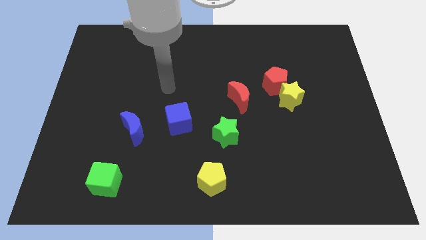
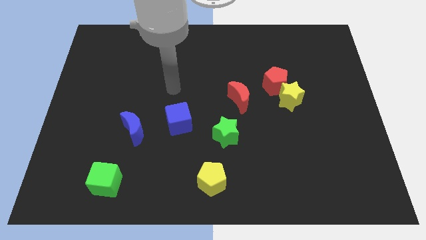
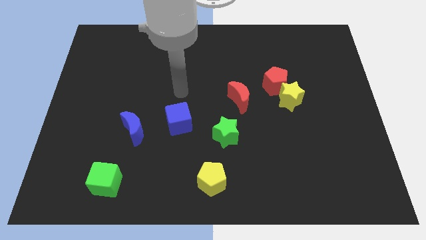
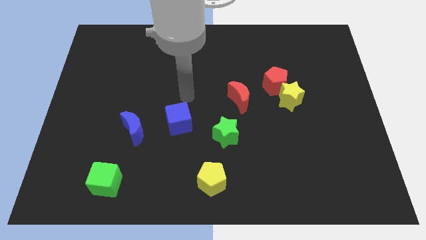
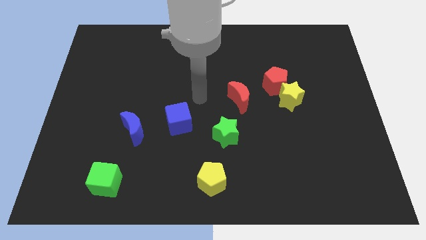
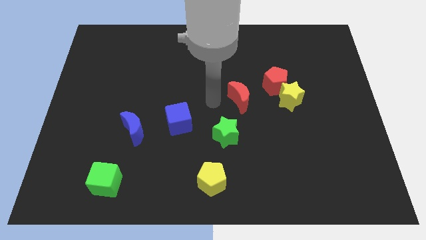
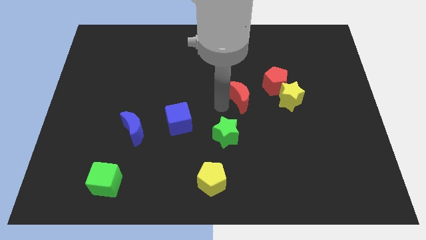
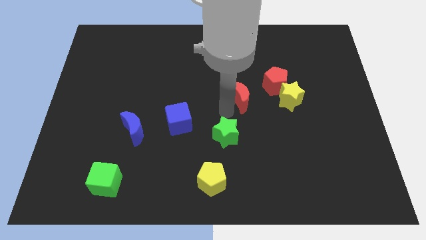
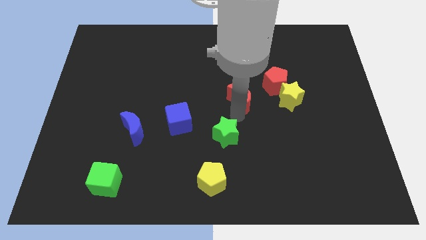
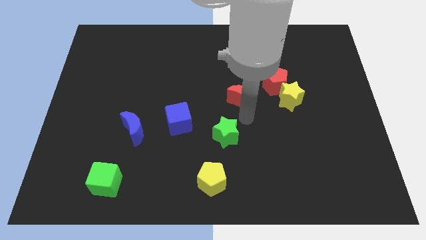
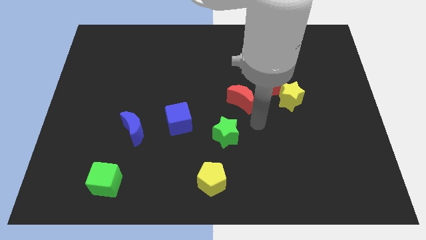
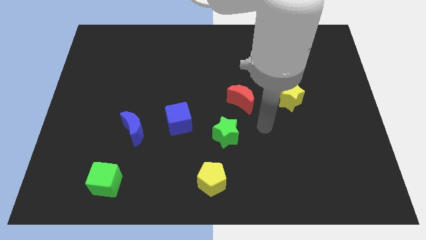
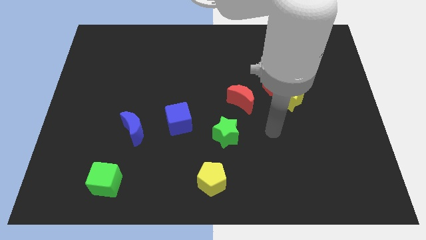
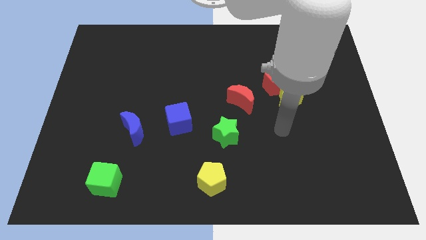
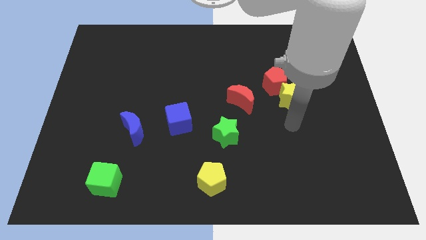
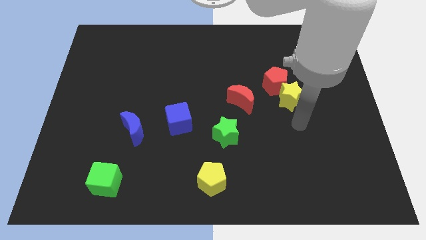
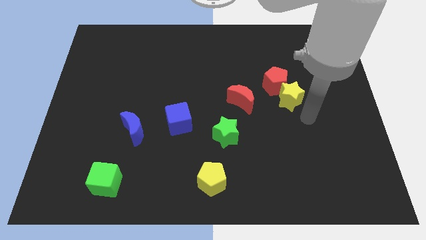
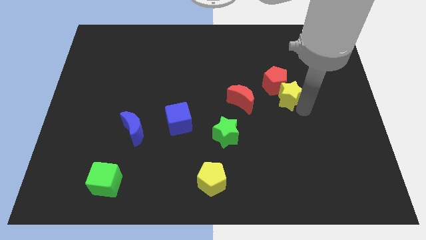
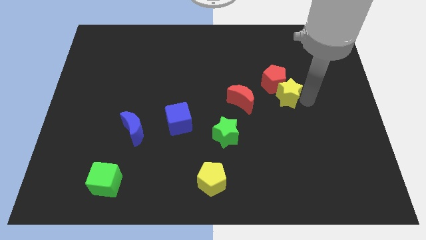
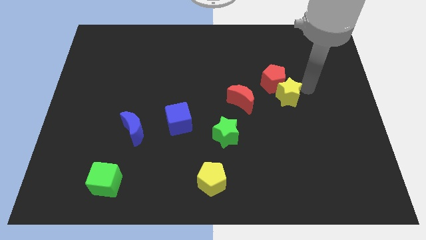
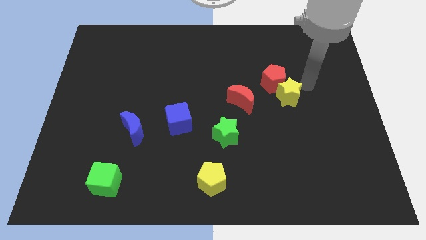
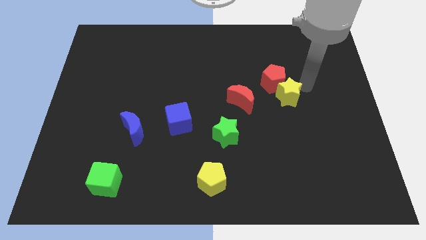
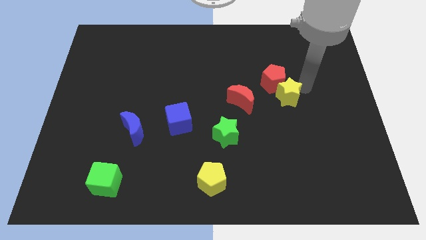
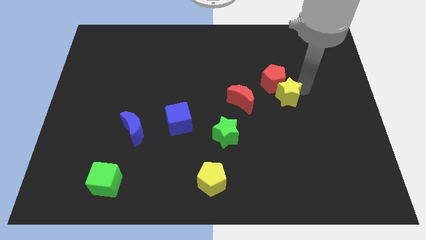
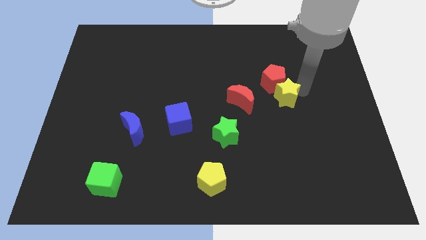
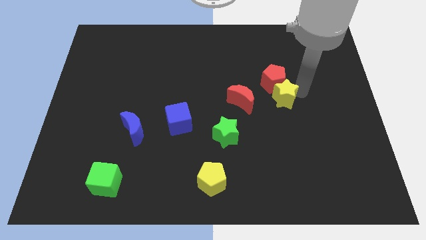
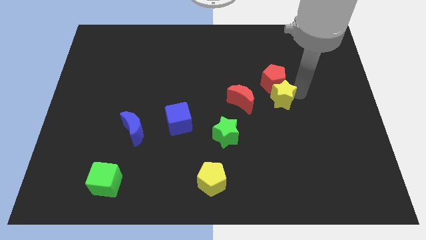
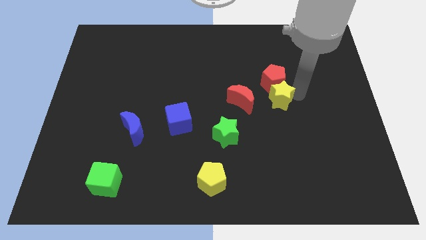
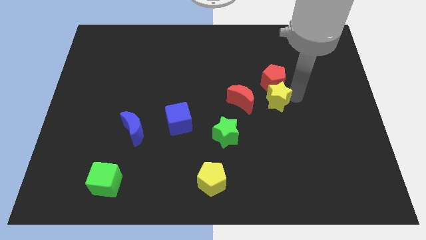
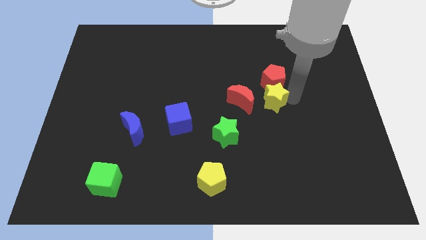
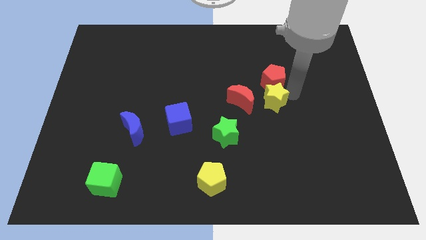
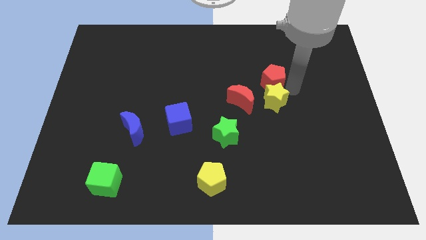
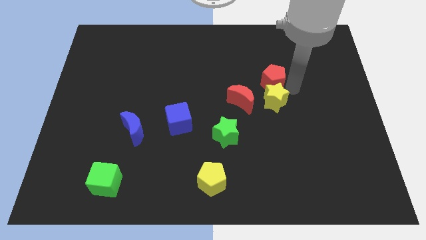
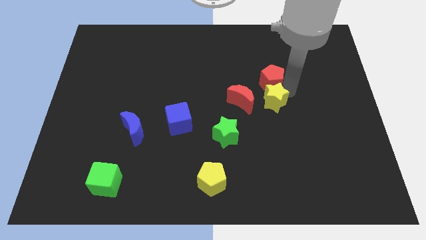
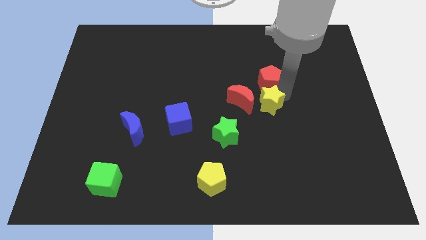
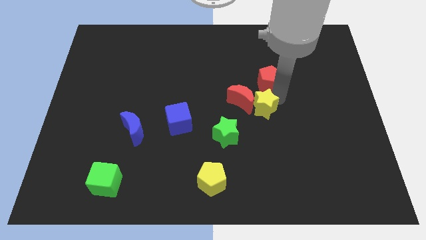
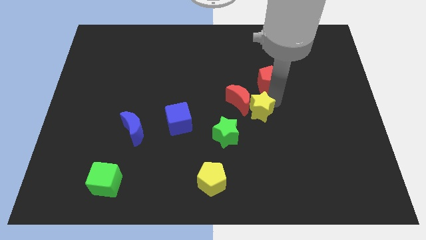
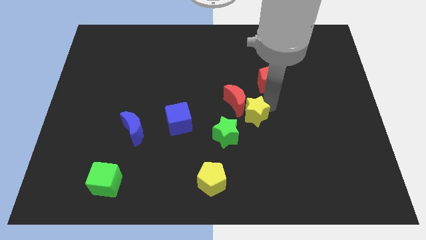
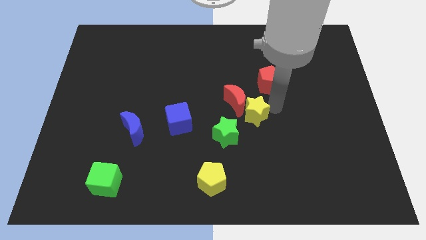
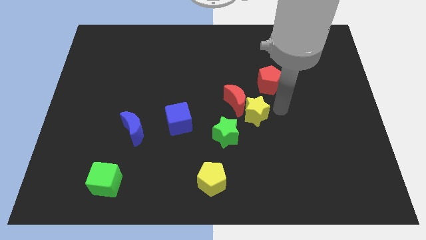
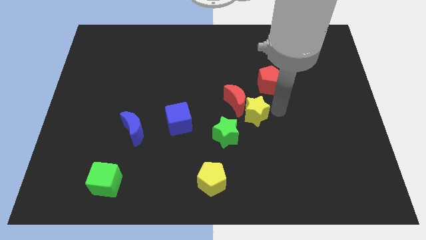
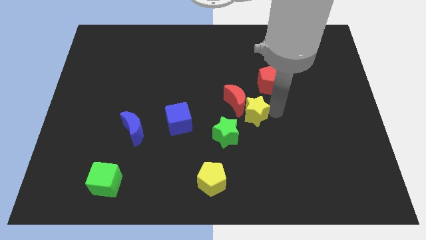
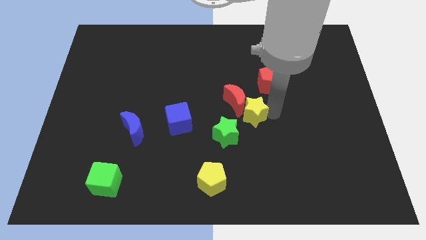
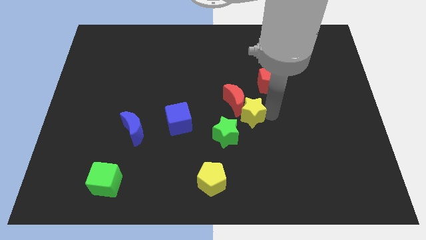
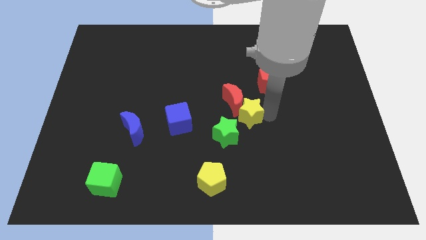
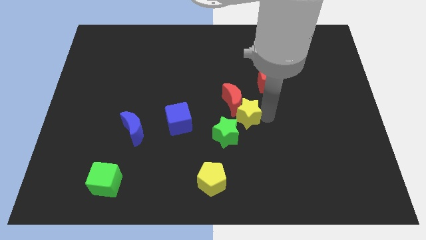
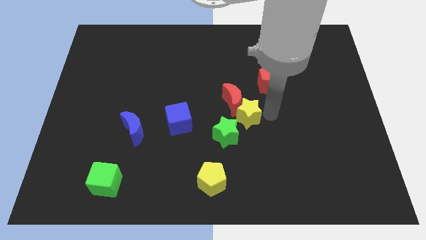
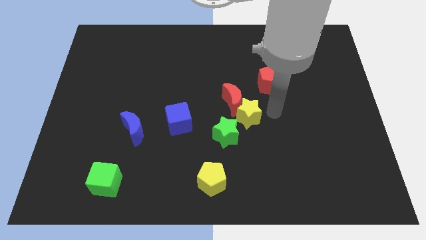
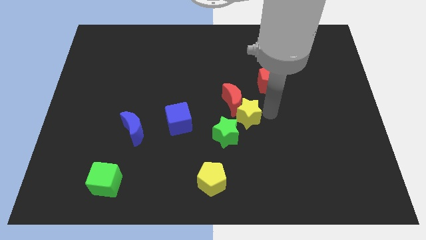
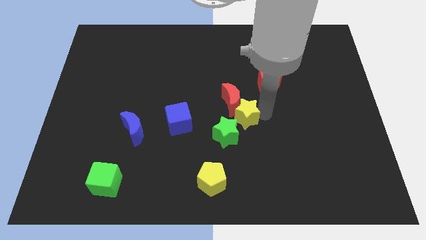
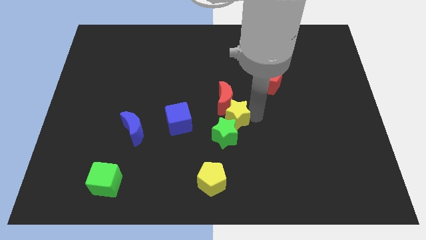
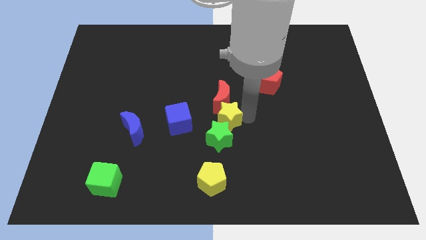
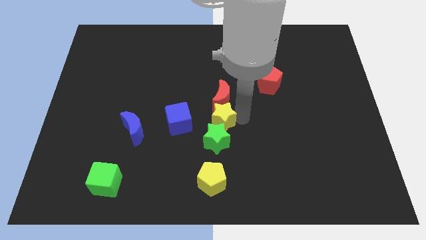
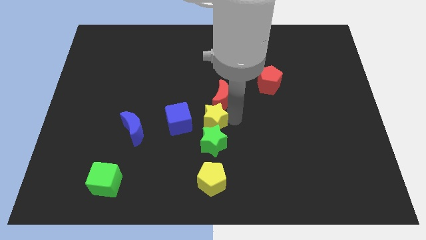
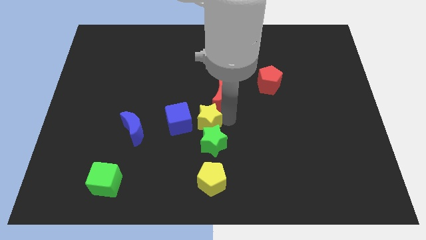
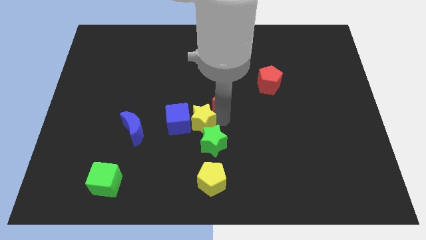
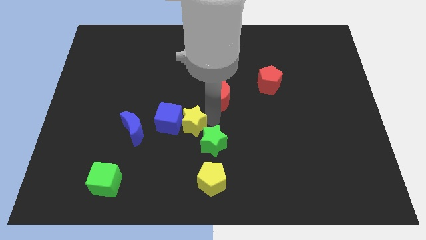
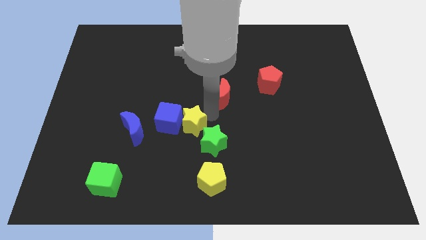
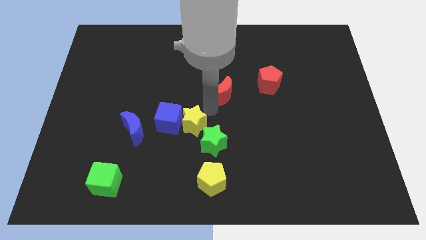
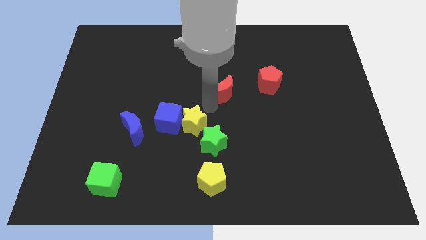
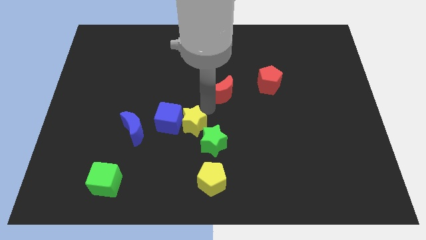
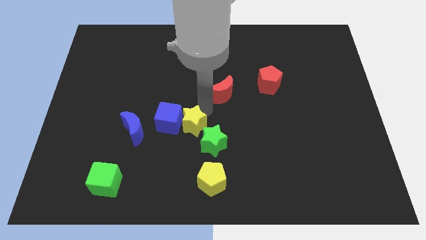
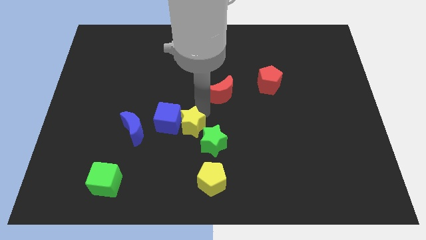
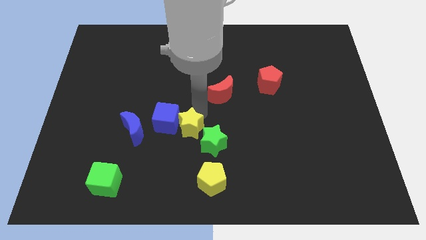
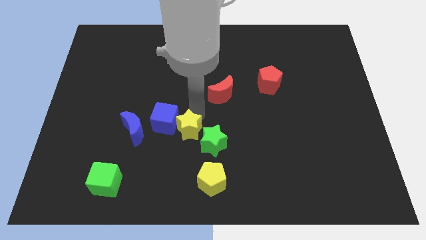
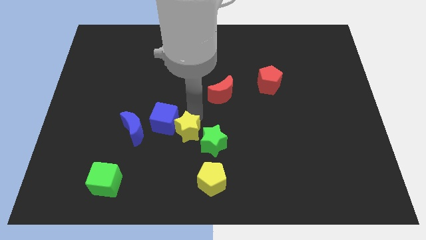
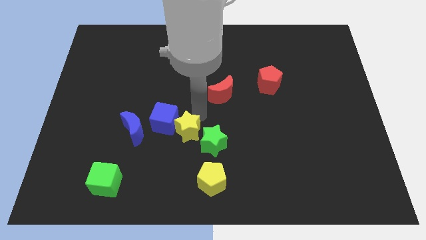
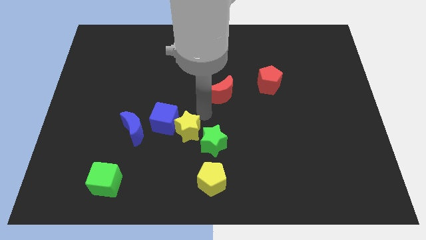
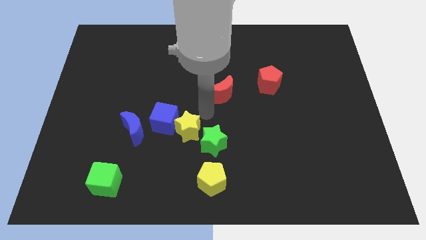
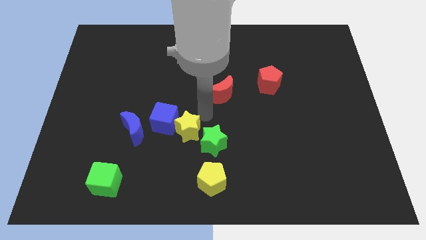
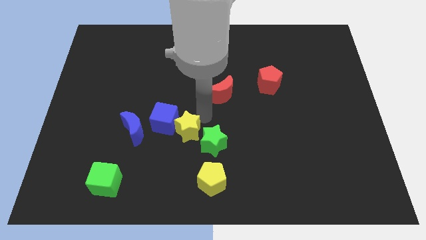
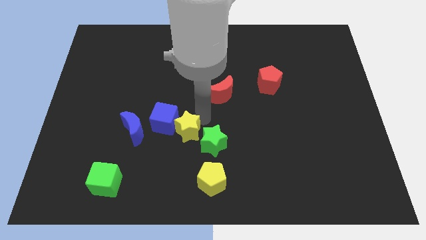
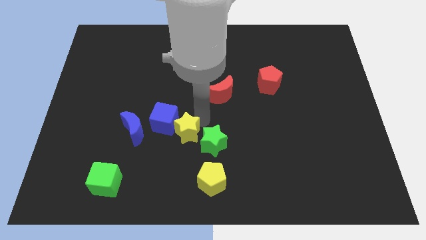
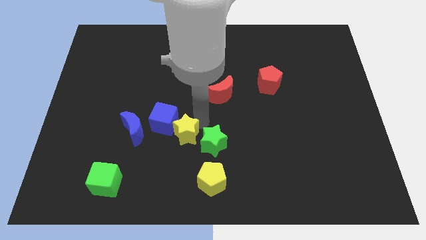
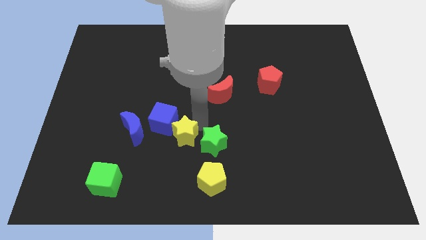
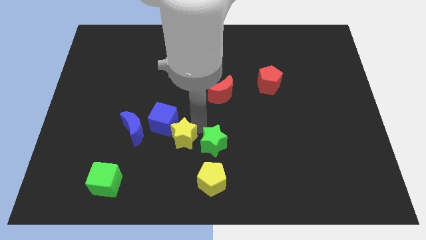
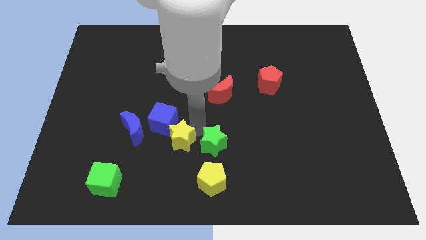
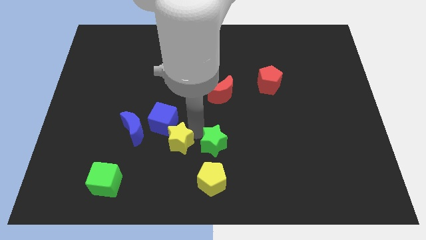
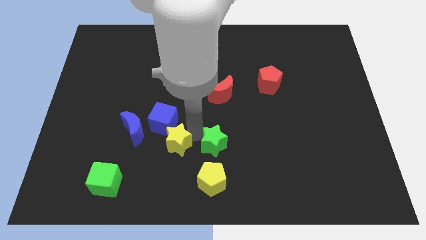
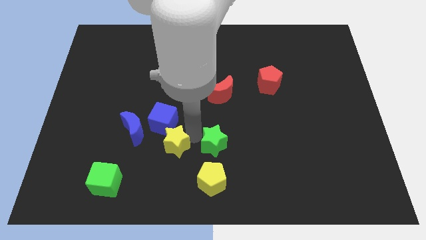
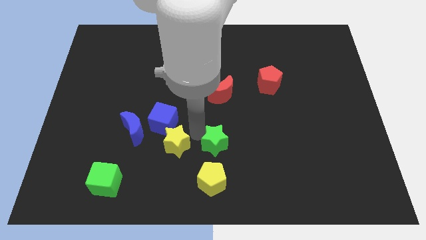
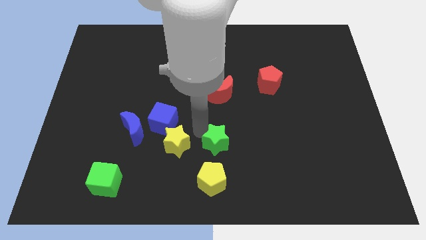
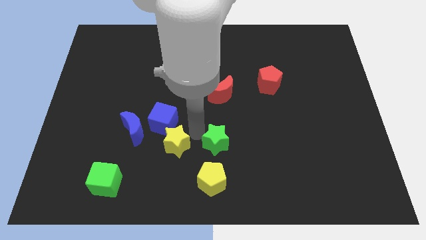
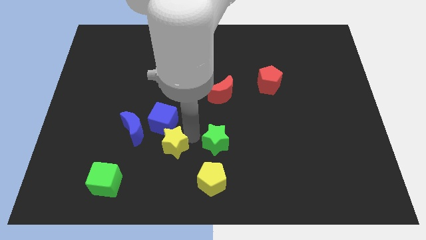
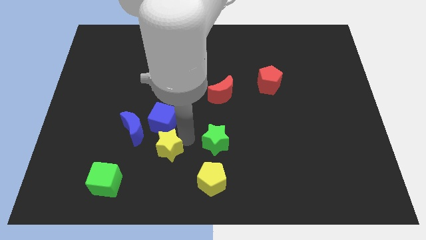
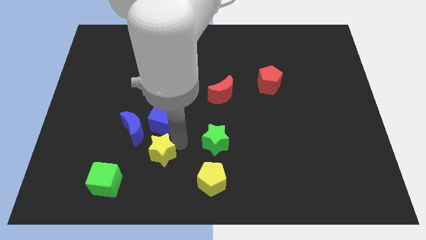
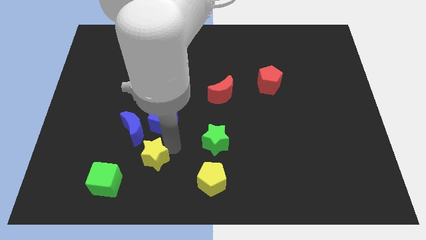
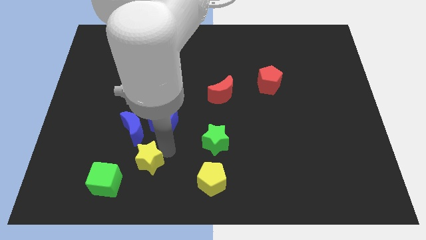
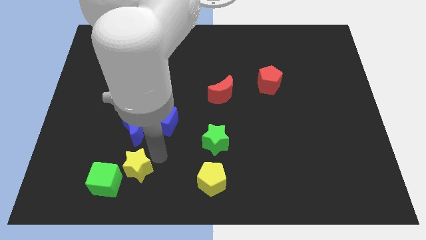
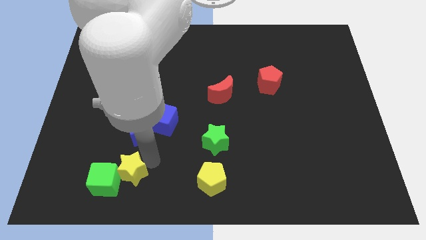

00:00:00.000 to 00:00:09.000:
move the yellow star to the green cube
